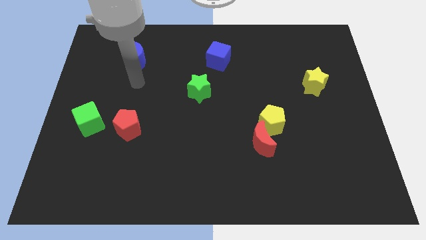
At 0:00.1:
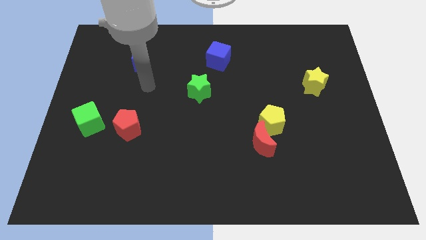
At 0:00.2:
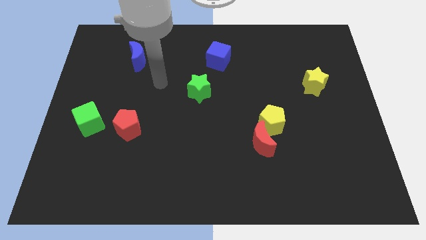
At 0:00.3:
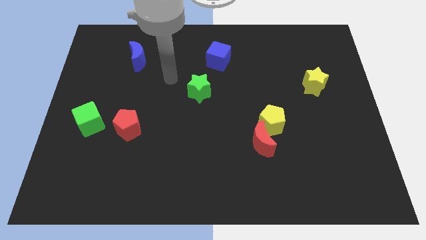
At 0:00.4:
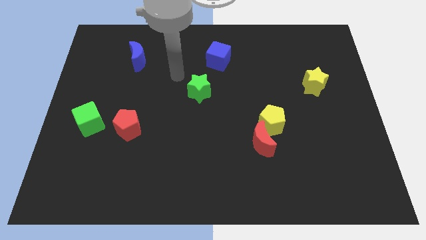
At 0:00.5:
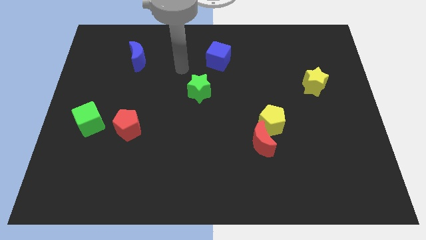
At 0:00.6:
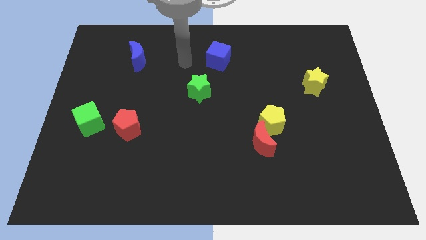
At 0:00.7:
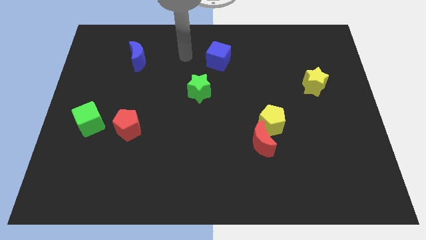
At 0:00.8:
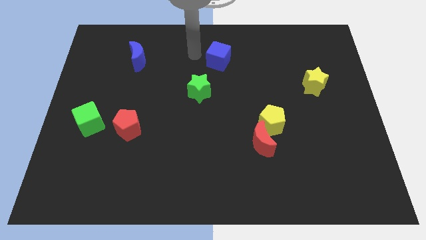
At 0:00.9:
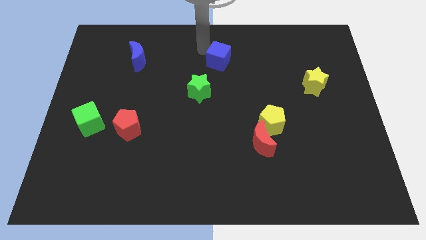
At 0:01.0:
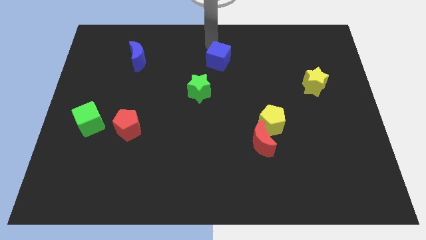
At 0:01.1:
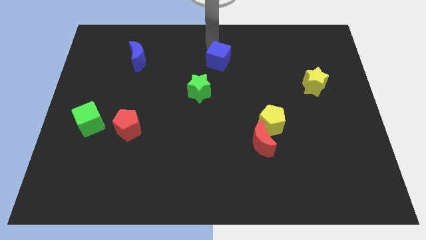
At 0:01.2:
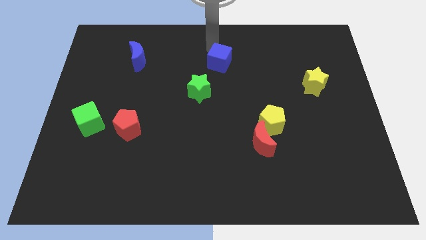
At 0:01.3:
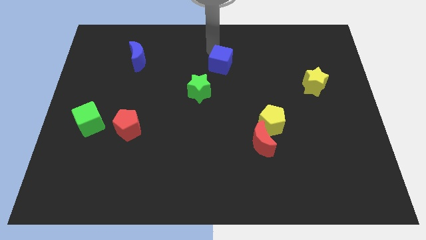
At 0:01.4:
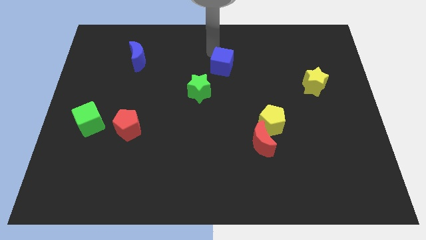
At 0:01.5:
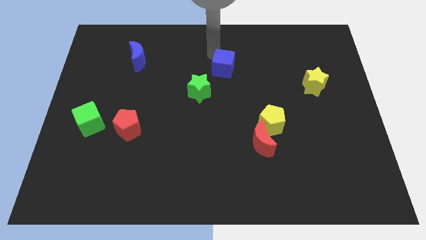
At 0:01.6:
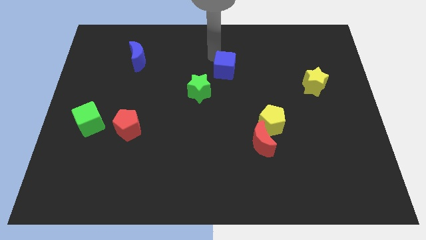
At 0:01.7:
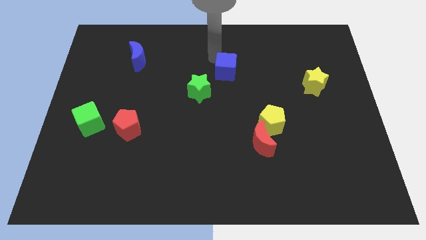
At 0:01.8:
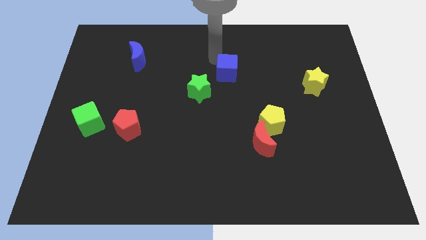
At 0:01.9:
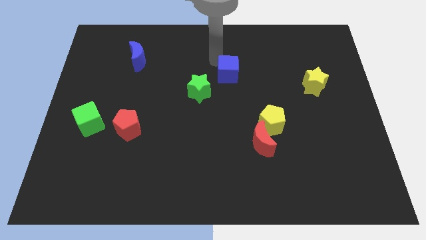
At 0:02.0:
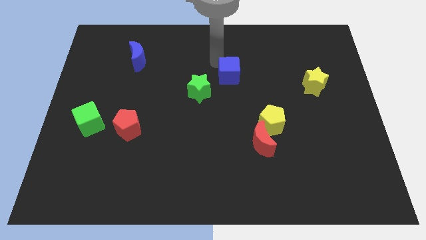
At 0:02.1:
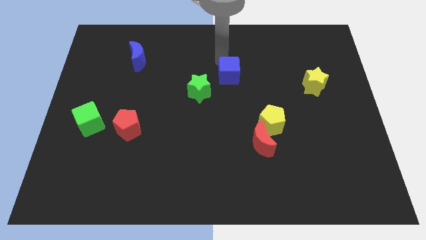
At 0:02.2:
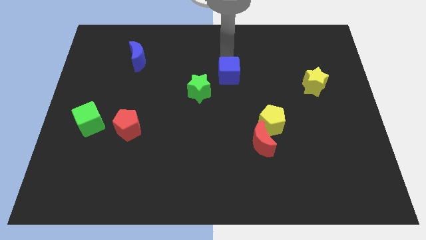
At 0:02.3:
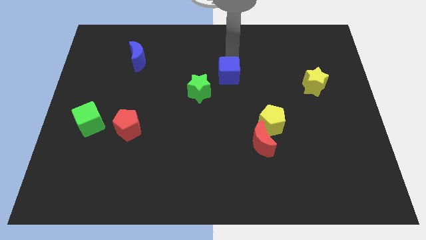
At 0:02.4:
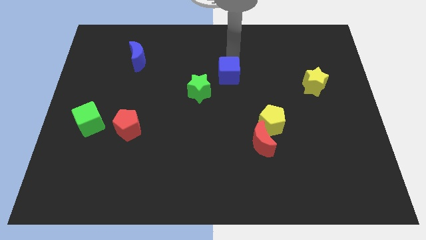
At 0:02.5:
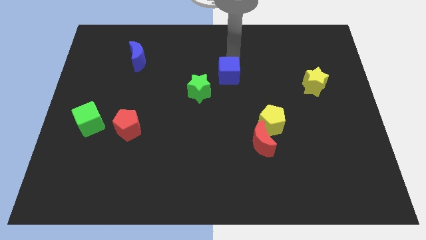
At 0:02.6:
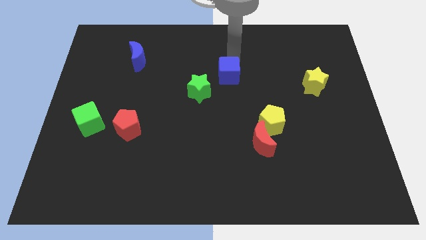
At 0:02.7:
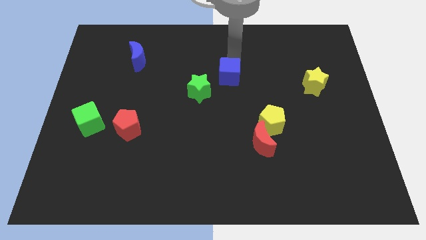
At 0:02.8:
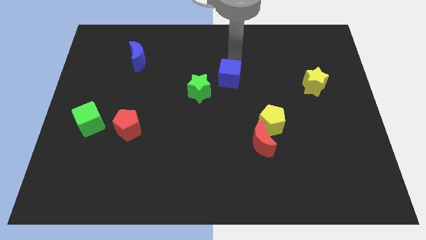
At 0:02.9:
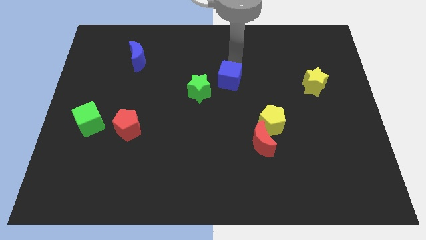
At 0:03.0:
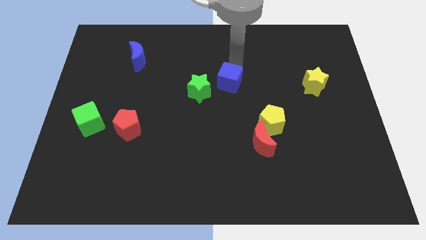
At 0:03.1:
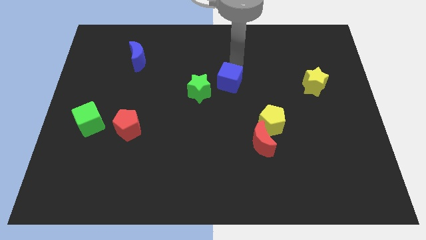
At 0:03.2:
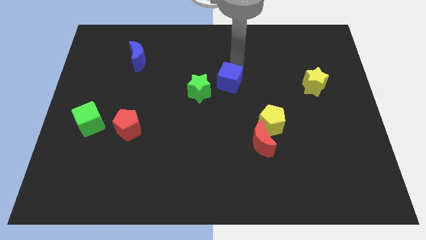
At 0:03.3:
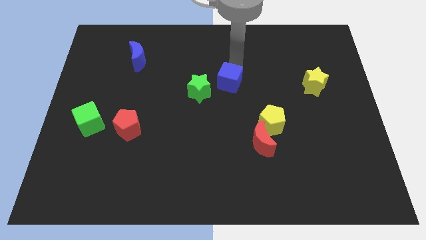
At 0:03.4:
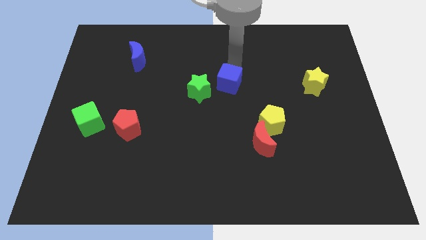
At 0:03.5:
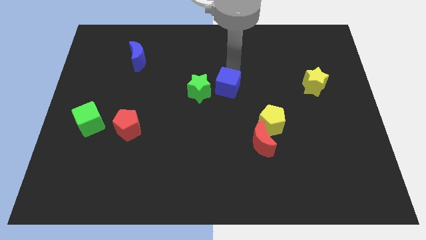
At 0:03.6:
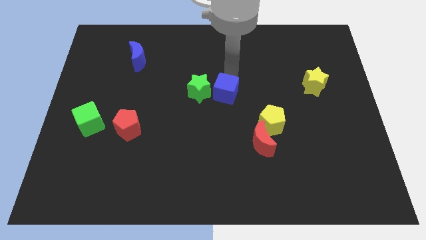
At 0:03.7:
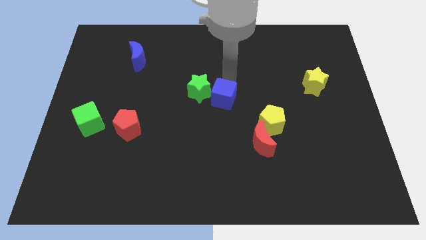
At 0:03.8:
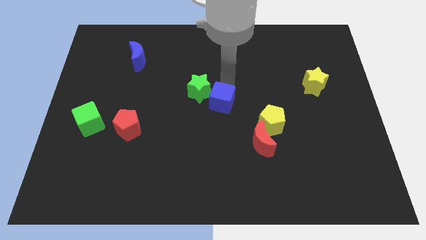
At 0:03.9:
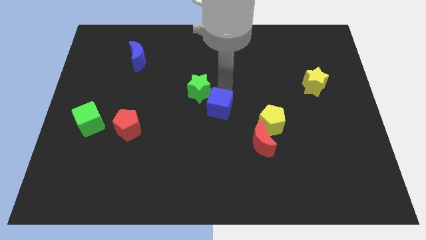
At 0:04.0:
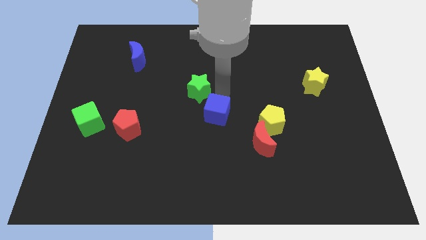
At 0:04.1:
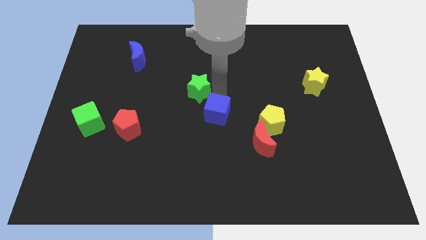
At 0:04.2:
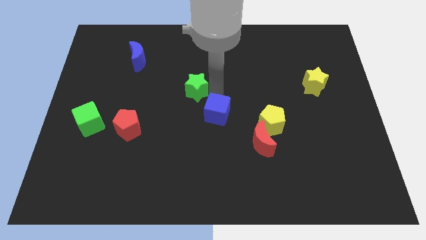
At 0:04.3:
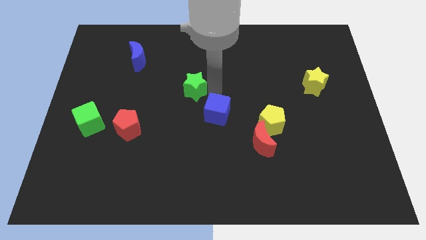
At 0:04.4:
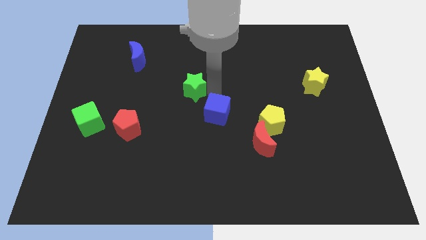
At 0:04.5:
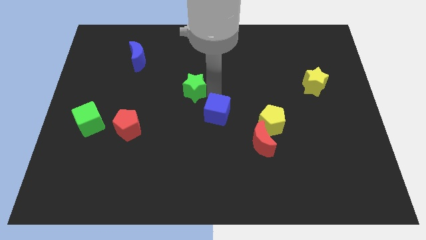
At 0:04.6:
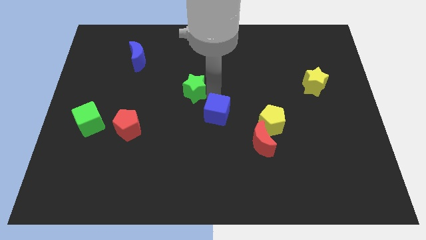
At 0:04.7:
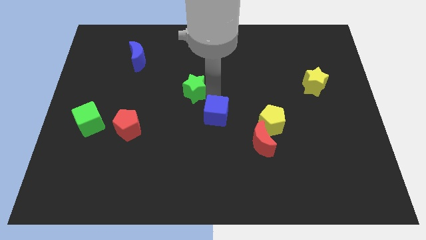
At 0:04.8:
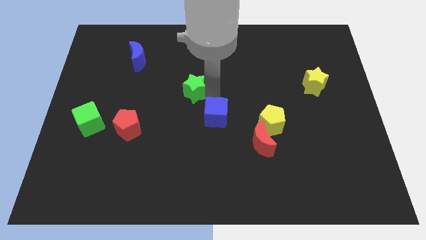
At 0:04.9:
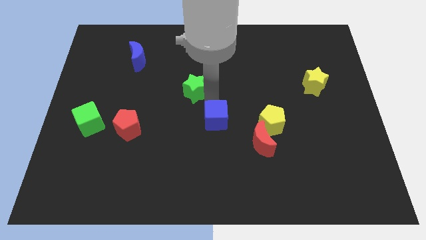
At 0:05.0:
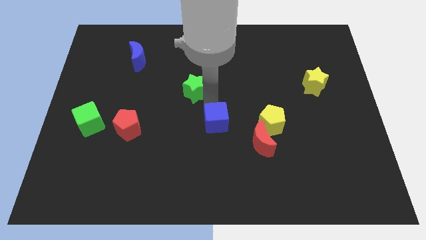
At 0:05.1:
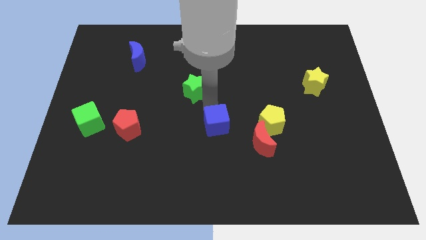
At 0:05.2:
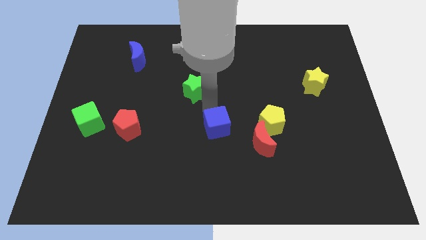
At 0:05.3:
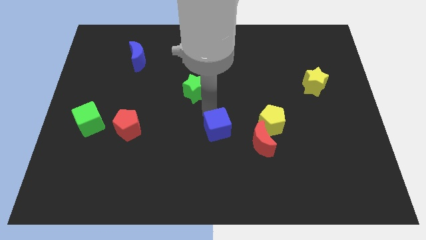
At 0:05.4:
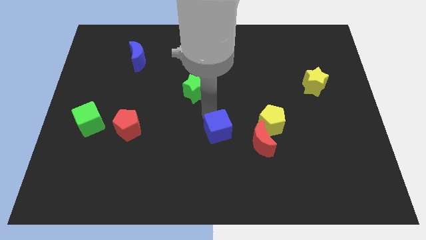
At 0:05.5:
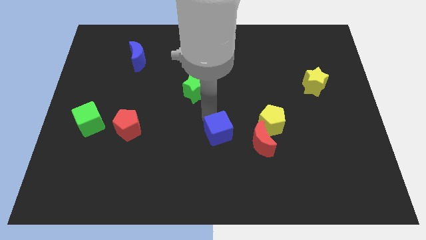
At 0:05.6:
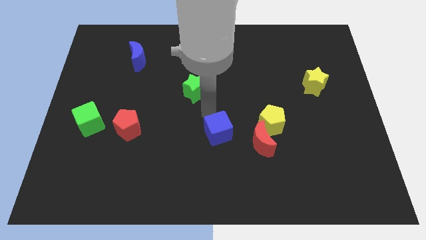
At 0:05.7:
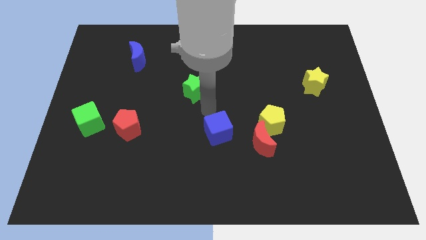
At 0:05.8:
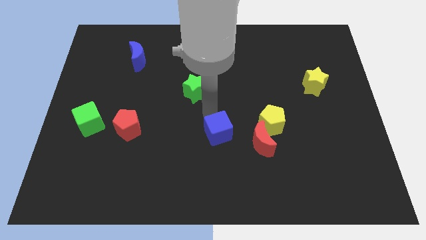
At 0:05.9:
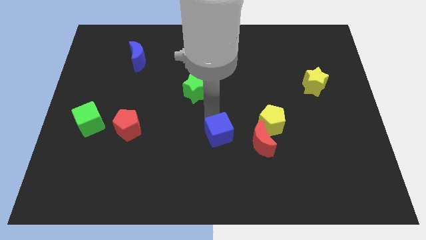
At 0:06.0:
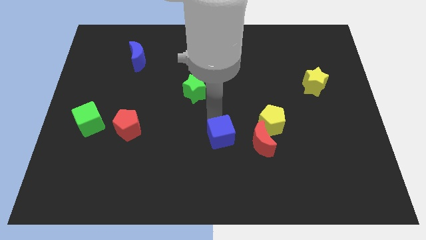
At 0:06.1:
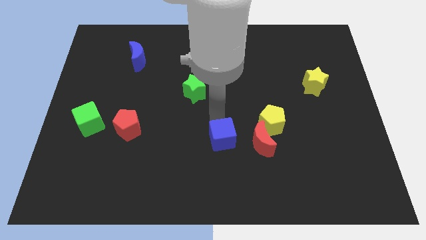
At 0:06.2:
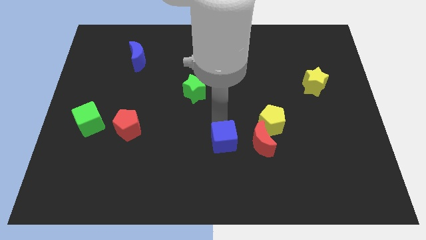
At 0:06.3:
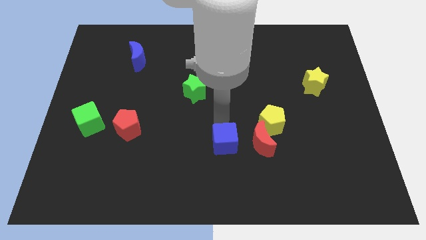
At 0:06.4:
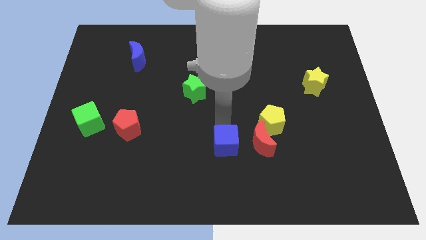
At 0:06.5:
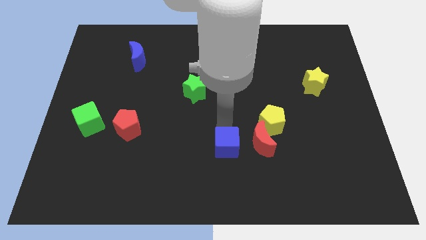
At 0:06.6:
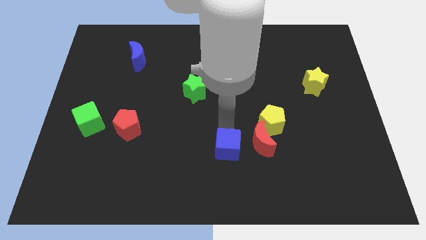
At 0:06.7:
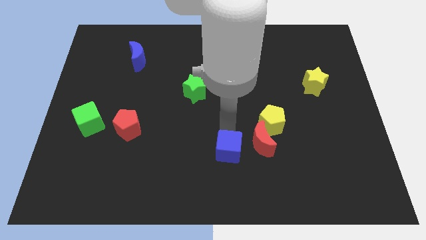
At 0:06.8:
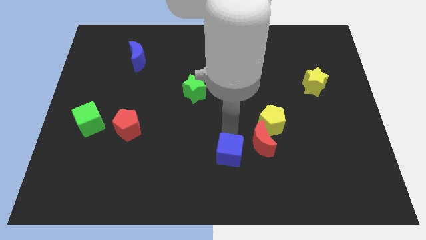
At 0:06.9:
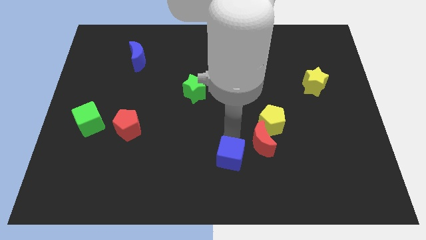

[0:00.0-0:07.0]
push the blue cube to the bottom
